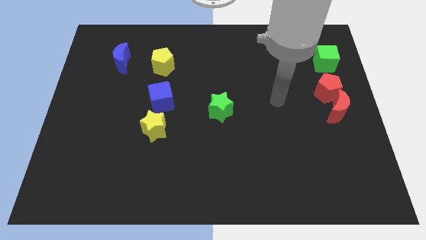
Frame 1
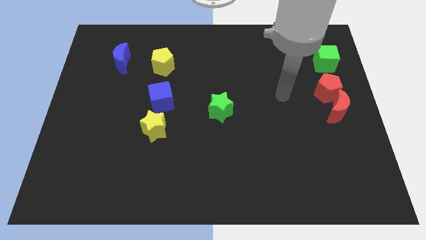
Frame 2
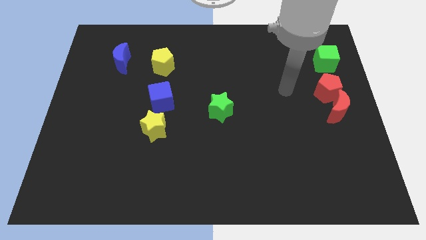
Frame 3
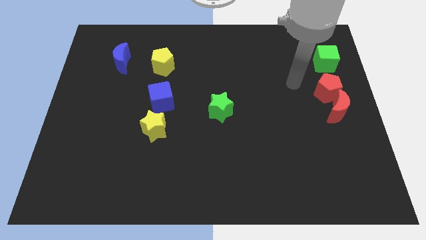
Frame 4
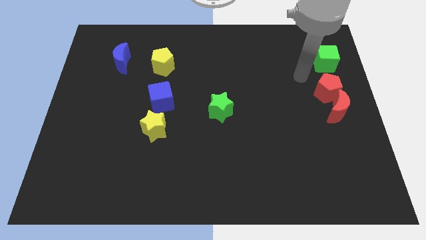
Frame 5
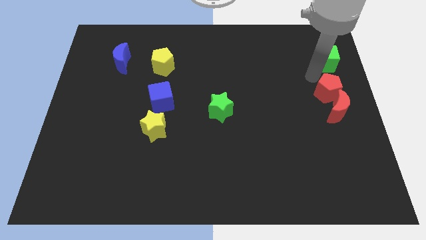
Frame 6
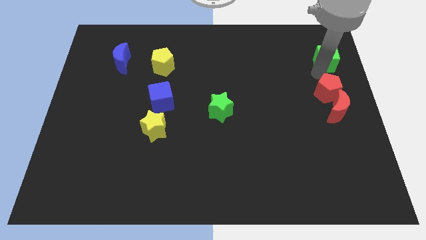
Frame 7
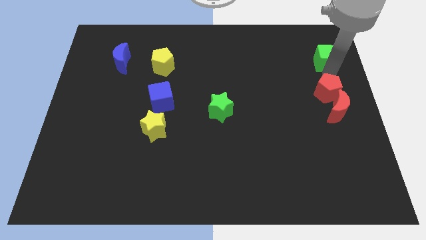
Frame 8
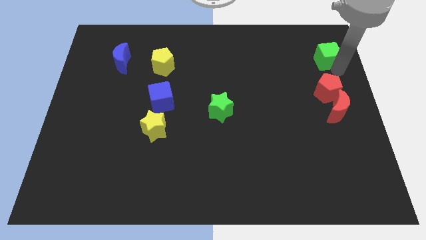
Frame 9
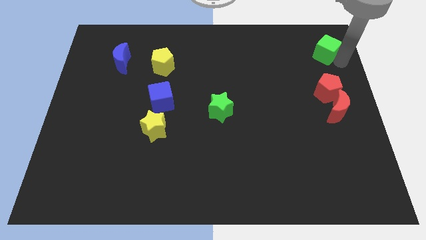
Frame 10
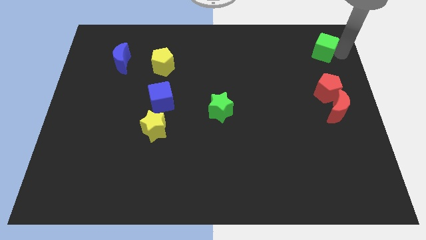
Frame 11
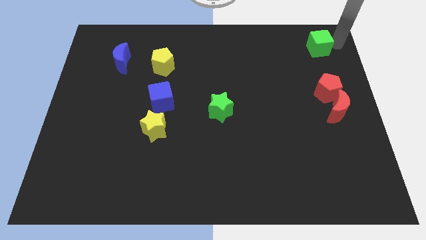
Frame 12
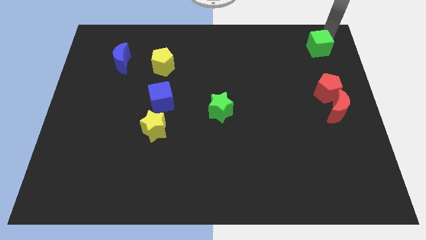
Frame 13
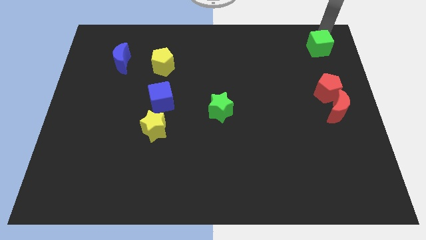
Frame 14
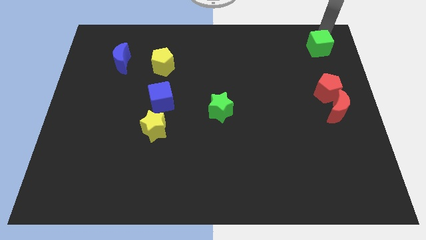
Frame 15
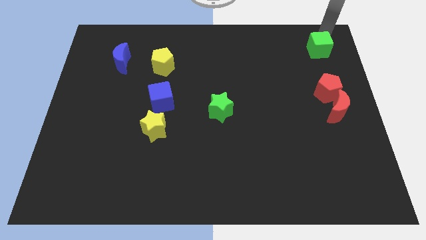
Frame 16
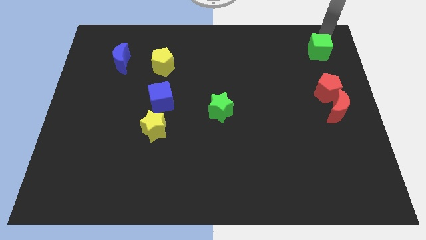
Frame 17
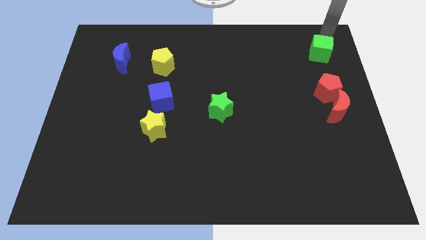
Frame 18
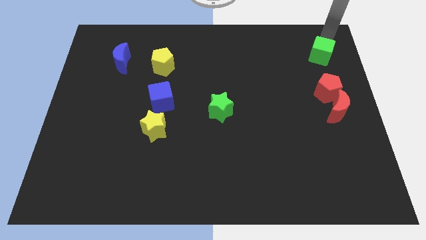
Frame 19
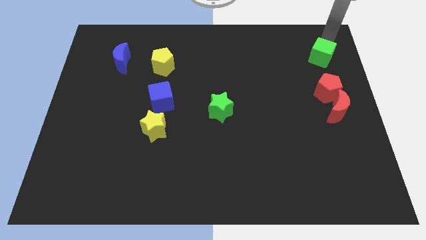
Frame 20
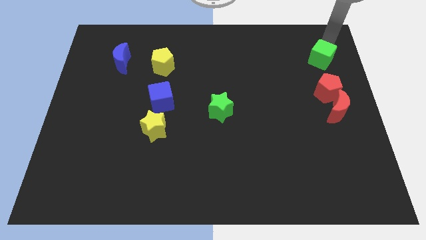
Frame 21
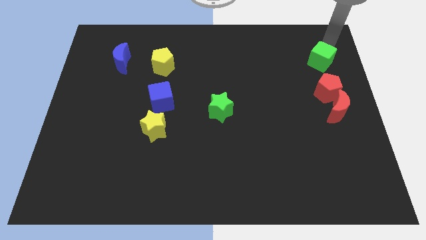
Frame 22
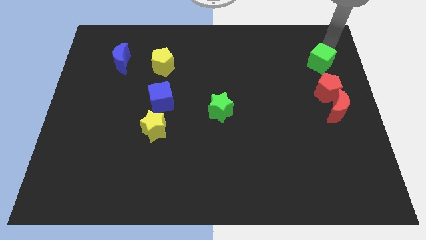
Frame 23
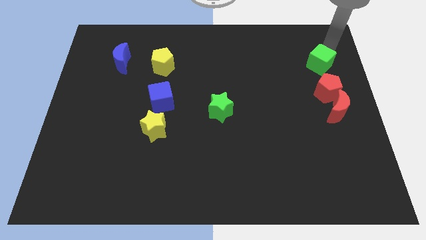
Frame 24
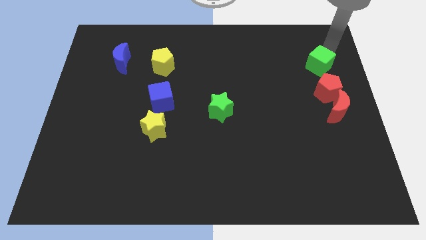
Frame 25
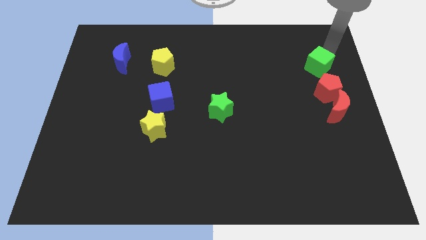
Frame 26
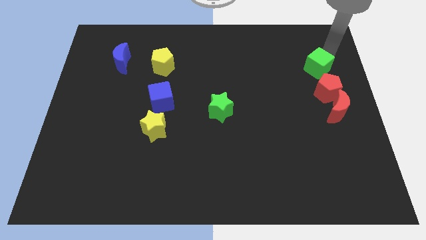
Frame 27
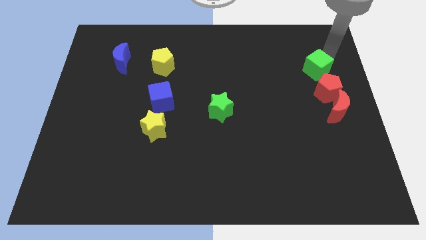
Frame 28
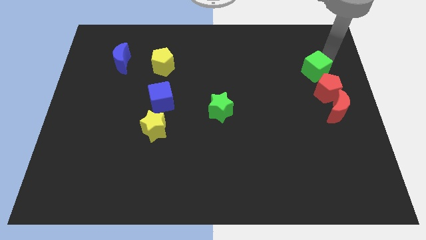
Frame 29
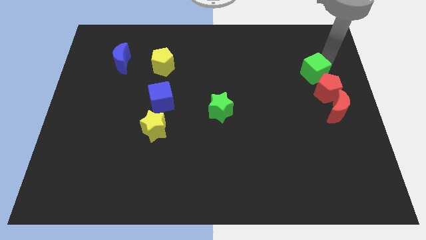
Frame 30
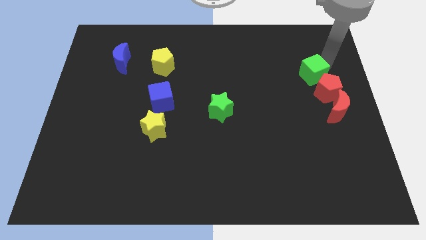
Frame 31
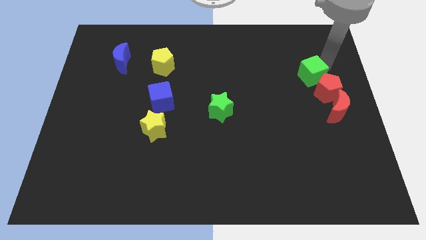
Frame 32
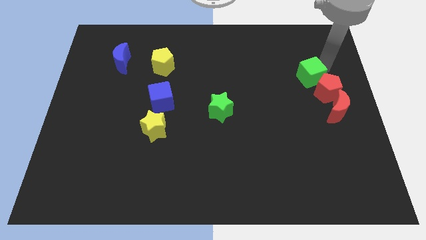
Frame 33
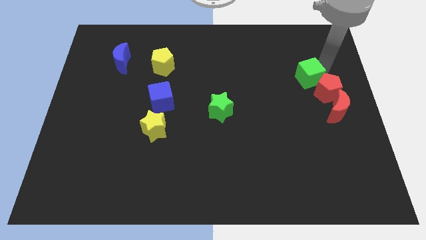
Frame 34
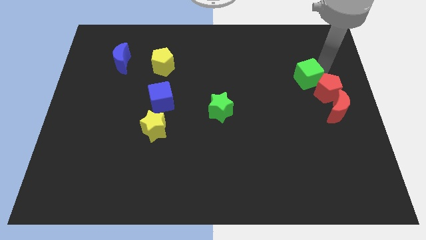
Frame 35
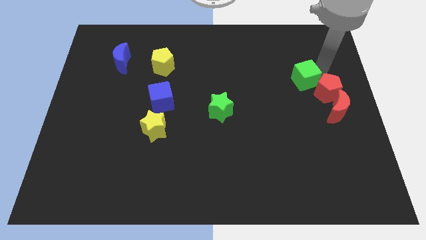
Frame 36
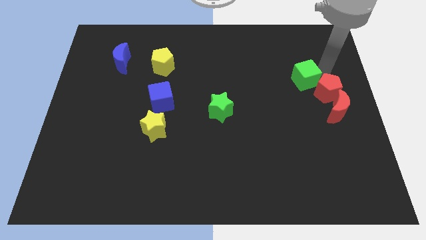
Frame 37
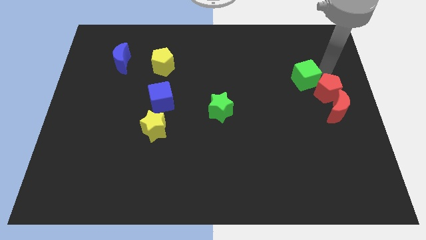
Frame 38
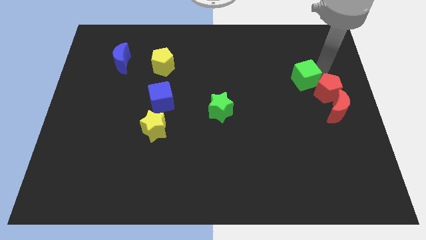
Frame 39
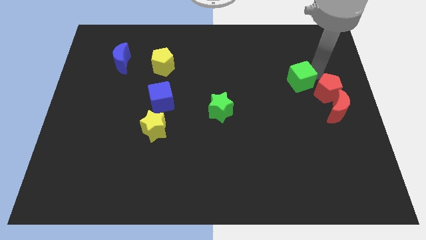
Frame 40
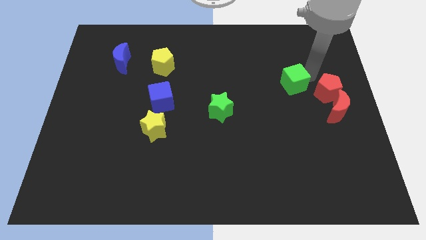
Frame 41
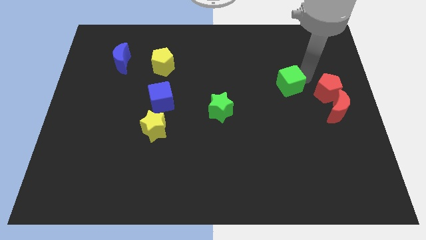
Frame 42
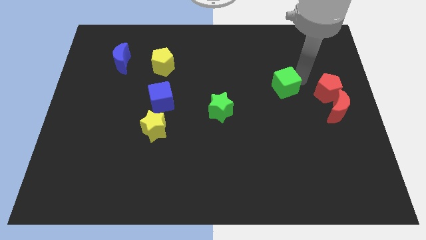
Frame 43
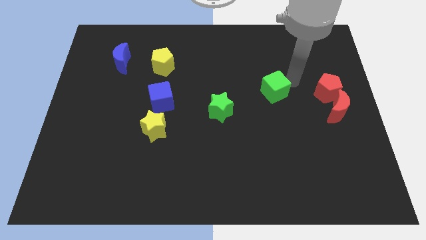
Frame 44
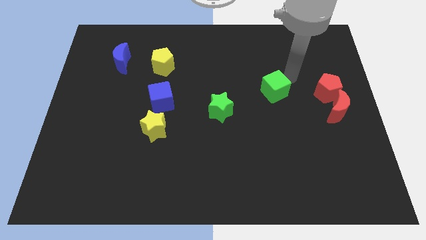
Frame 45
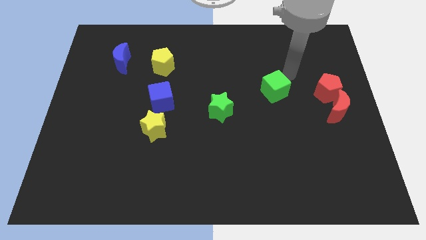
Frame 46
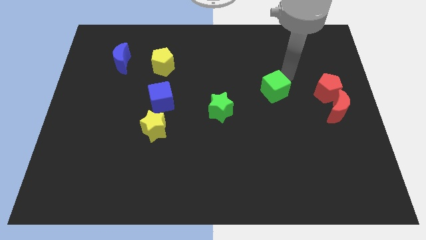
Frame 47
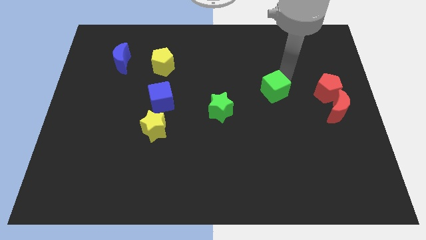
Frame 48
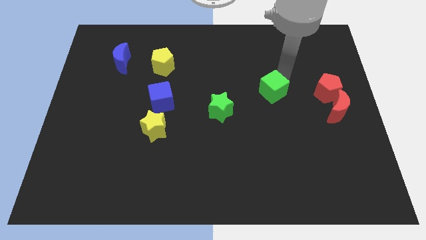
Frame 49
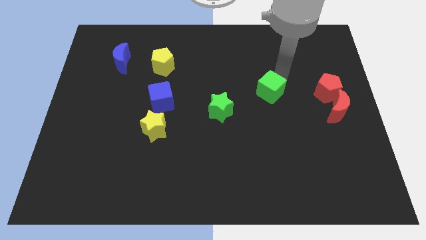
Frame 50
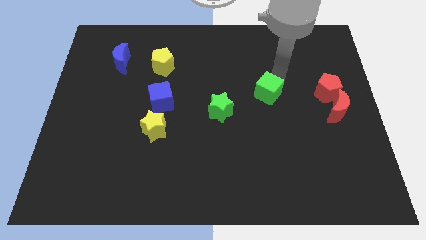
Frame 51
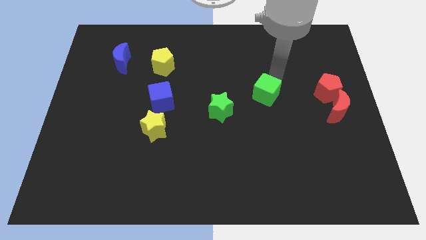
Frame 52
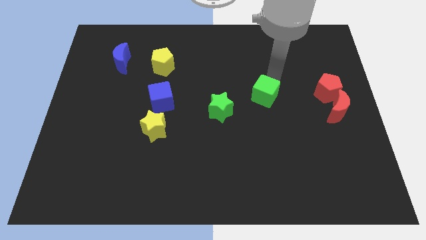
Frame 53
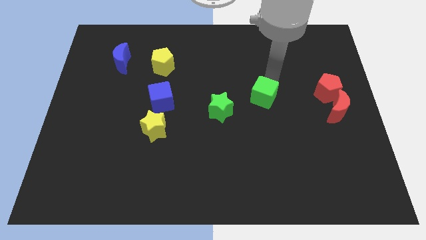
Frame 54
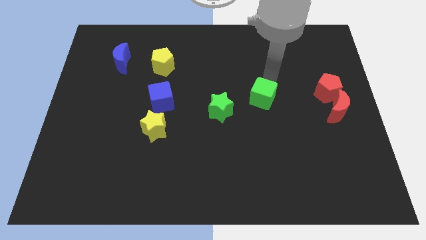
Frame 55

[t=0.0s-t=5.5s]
push the green cube down and then left

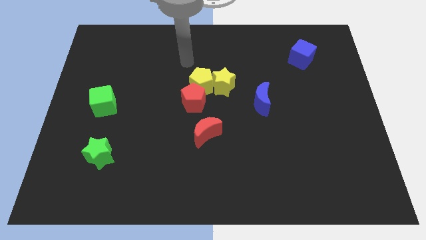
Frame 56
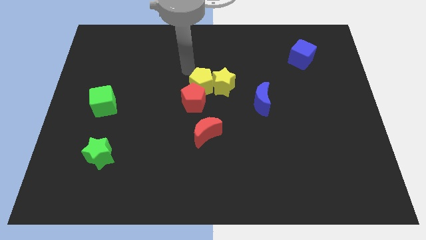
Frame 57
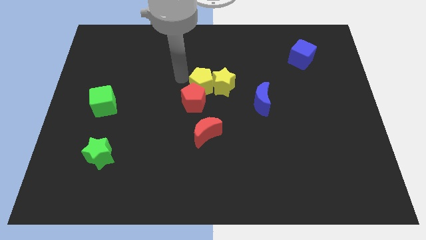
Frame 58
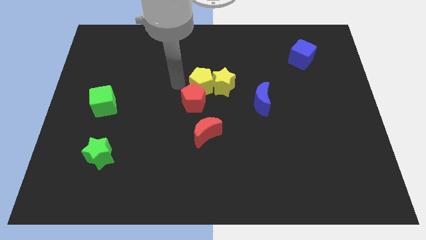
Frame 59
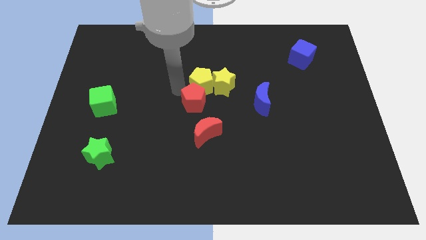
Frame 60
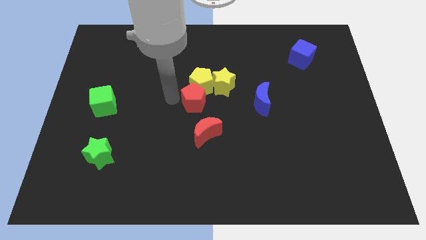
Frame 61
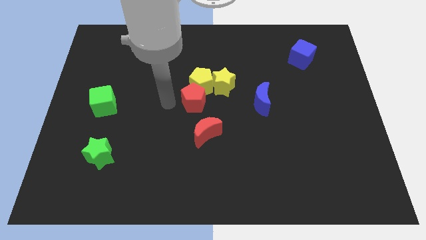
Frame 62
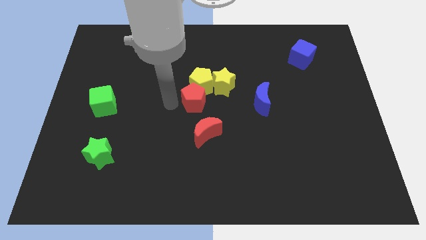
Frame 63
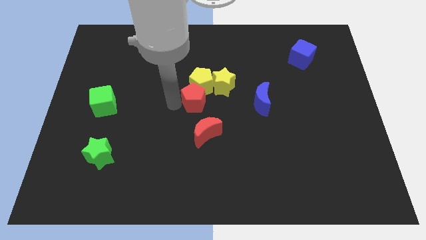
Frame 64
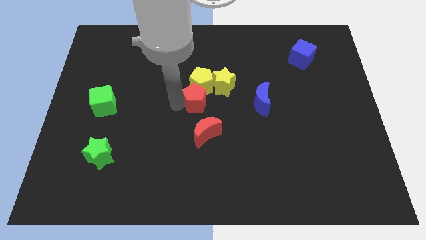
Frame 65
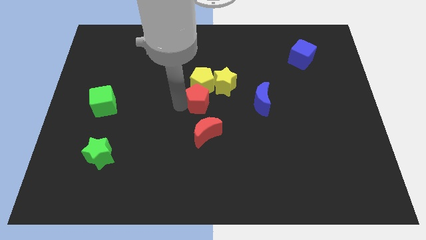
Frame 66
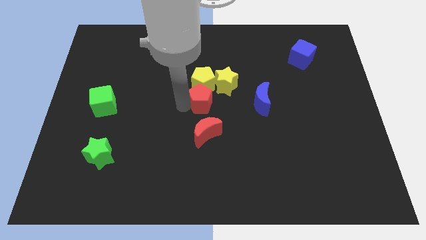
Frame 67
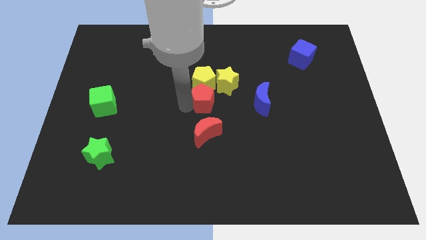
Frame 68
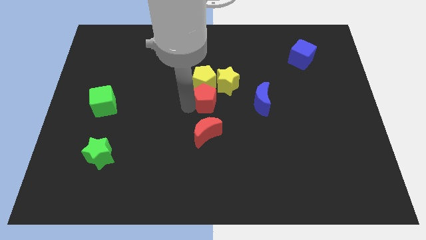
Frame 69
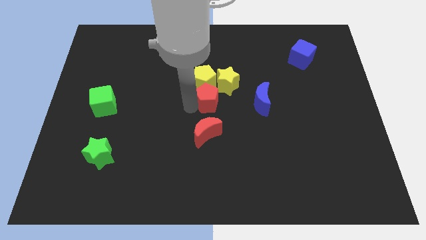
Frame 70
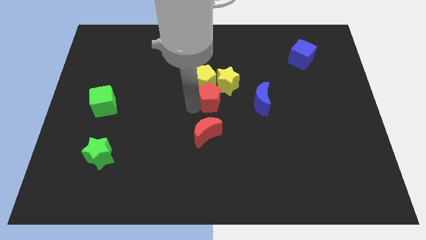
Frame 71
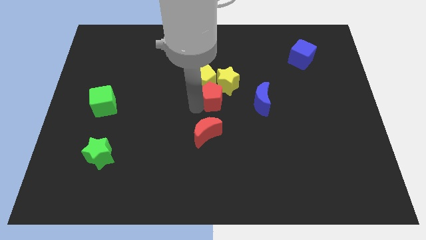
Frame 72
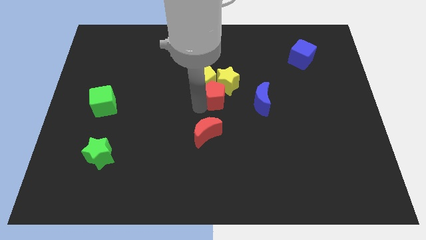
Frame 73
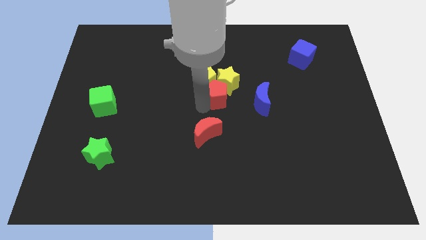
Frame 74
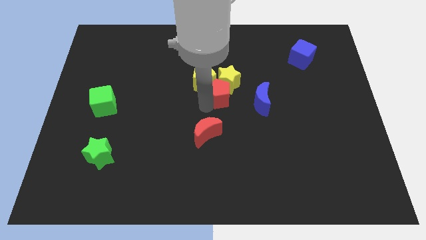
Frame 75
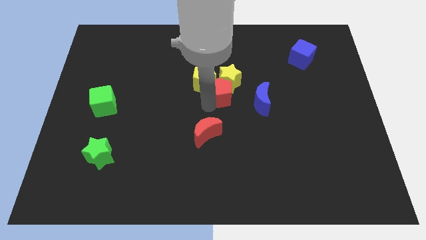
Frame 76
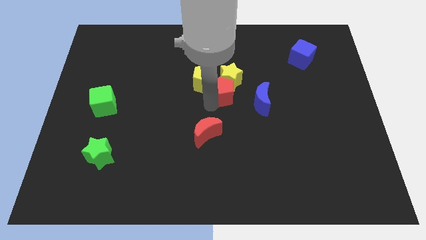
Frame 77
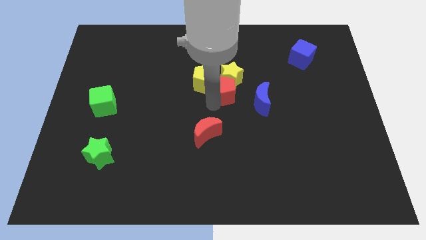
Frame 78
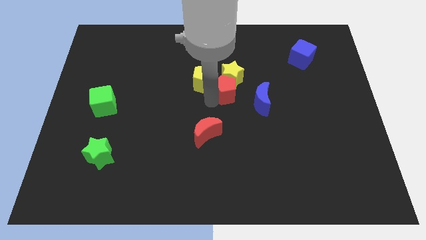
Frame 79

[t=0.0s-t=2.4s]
slide the red pentagon a little bit diagonally up and right

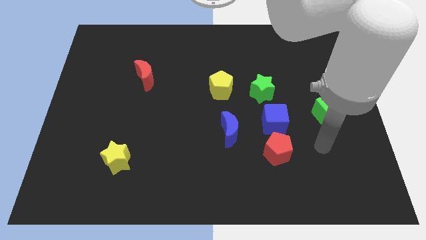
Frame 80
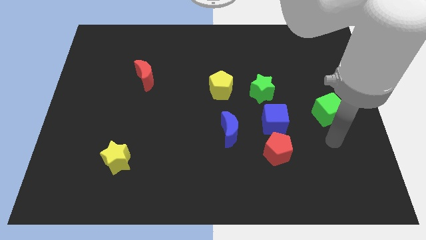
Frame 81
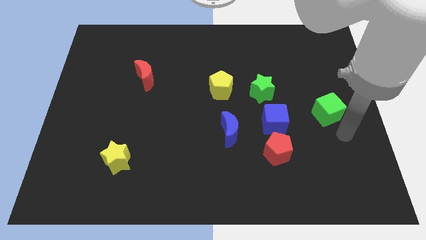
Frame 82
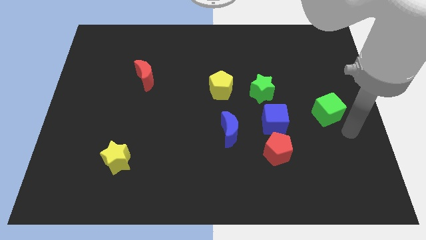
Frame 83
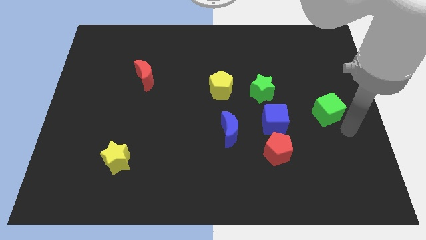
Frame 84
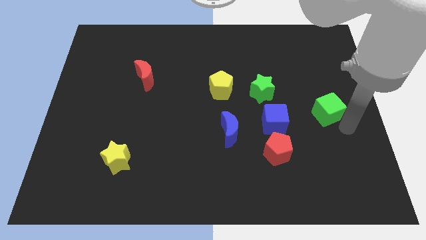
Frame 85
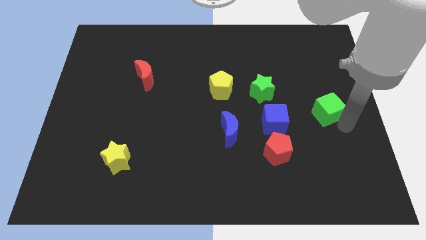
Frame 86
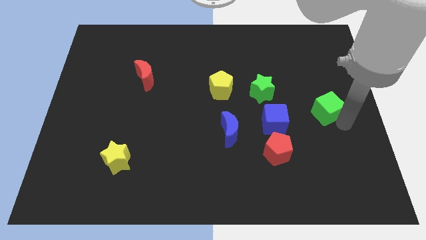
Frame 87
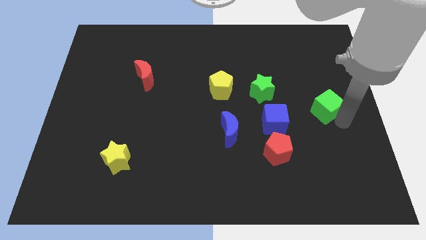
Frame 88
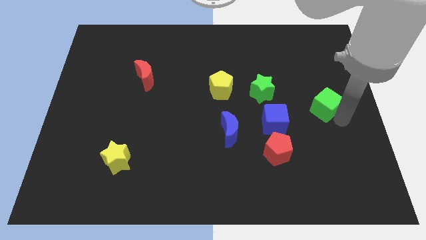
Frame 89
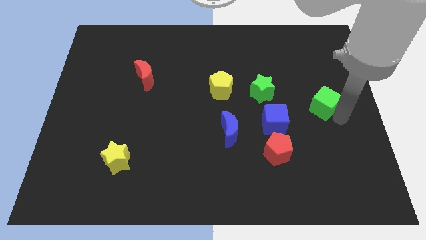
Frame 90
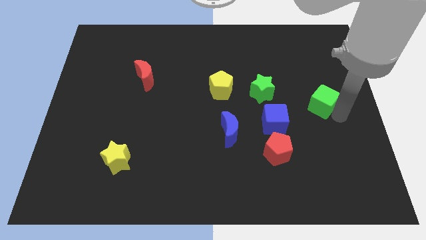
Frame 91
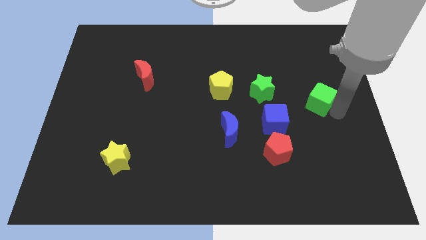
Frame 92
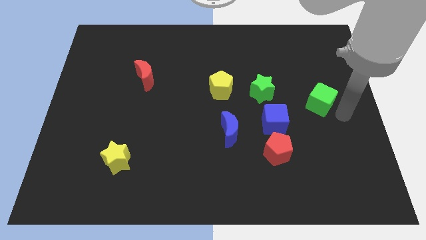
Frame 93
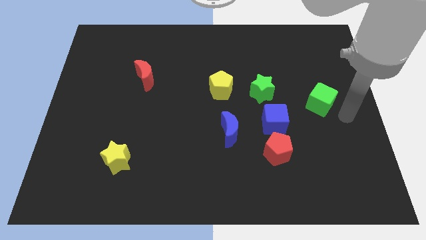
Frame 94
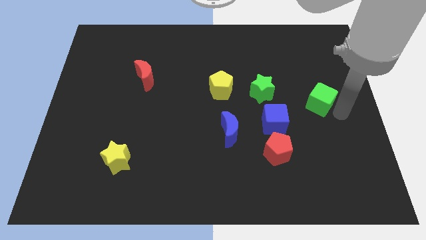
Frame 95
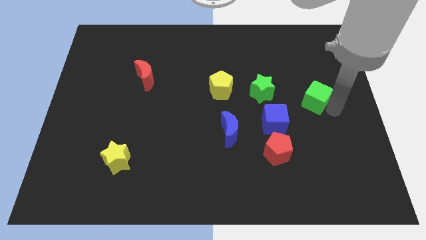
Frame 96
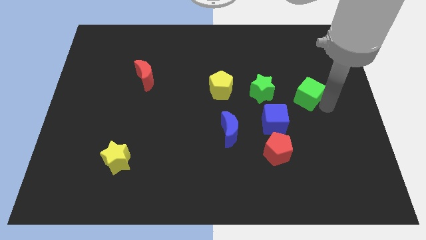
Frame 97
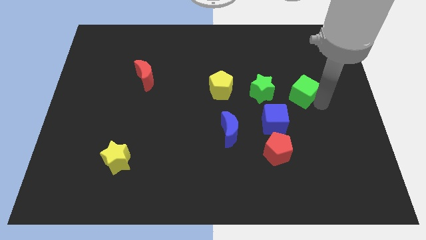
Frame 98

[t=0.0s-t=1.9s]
push the green cube up and then to the left somewhat
